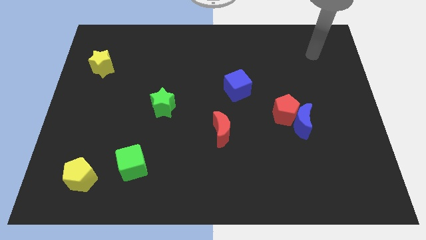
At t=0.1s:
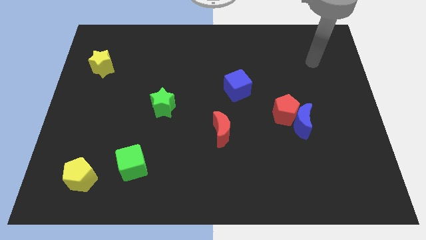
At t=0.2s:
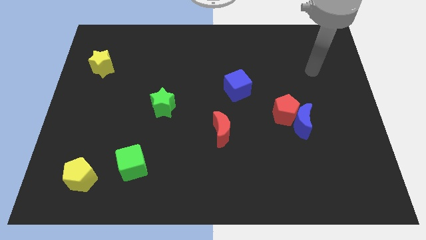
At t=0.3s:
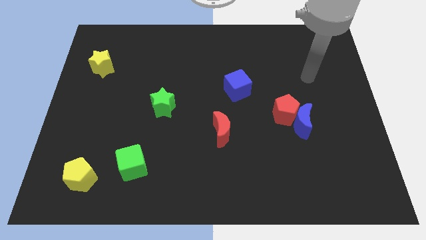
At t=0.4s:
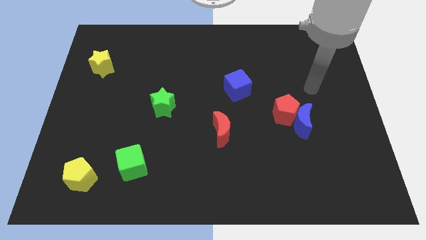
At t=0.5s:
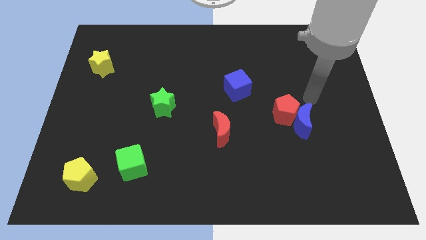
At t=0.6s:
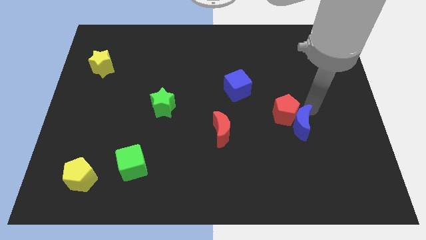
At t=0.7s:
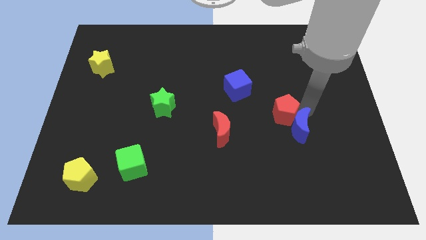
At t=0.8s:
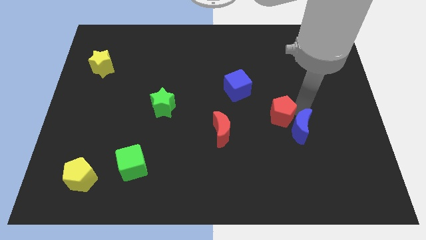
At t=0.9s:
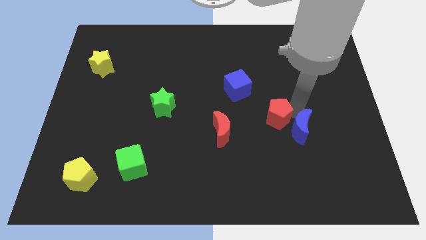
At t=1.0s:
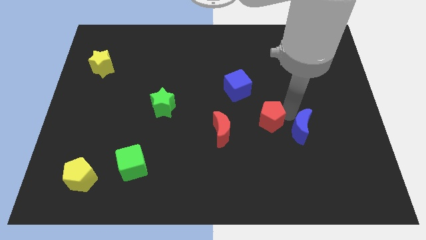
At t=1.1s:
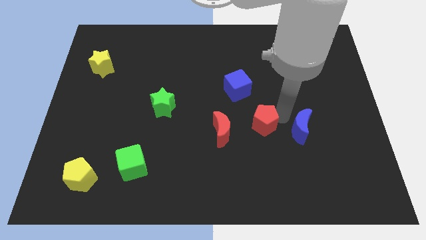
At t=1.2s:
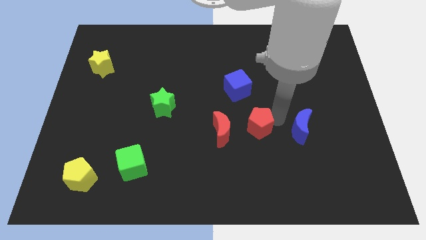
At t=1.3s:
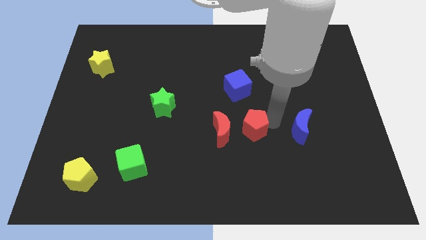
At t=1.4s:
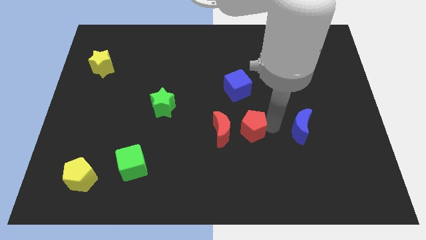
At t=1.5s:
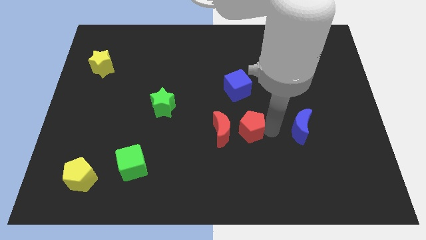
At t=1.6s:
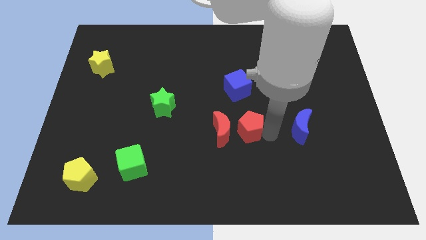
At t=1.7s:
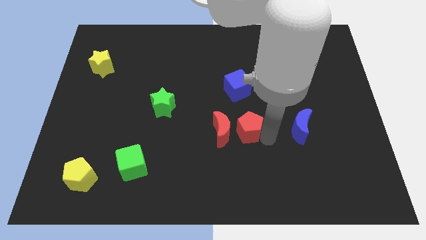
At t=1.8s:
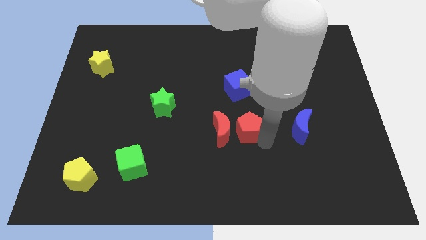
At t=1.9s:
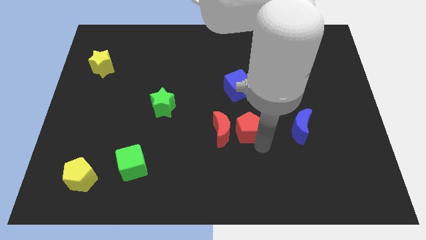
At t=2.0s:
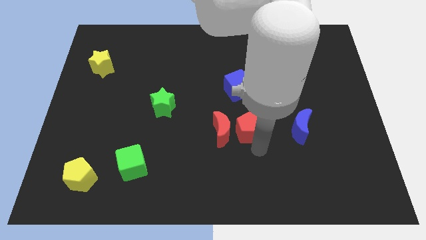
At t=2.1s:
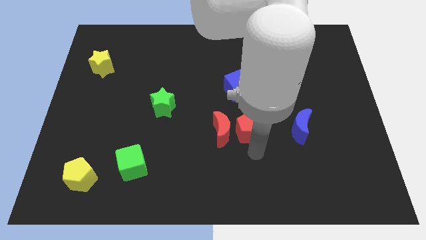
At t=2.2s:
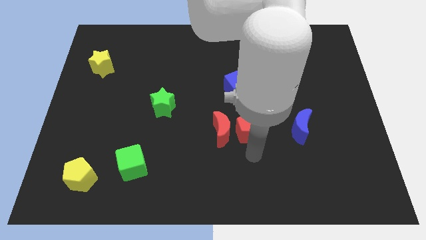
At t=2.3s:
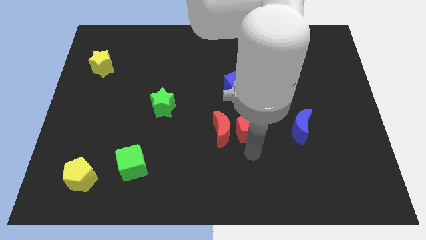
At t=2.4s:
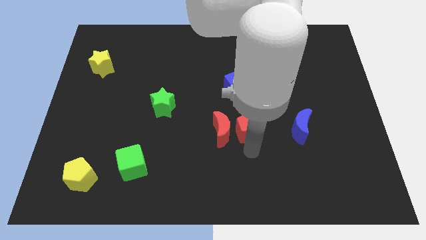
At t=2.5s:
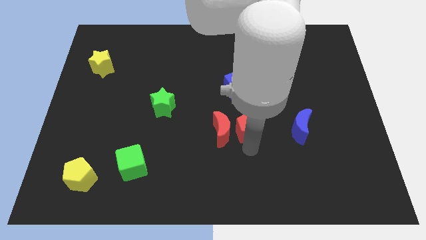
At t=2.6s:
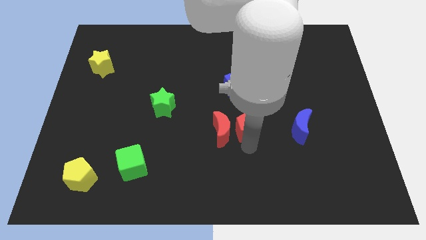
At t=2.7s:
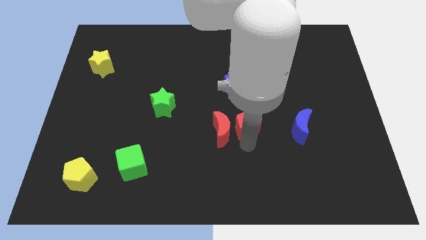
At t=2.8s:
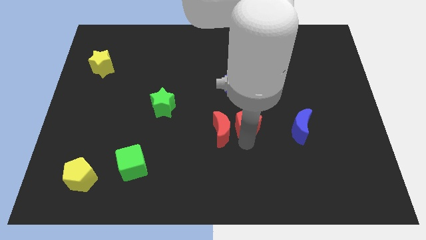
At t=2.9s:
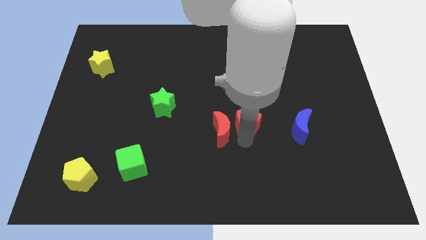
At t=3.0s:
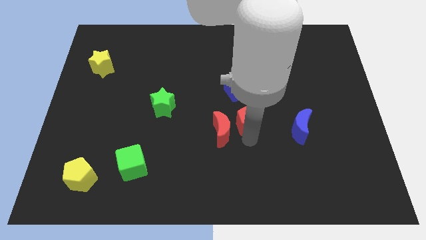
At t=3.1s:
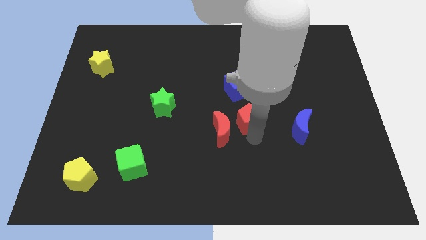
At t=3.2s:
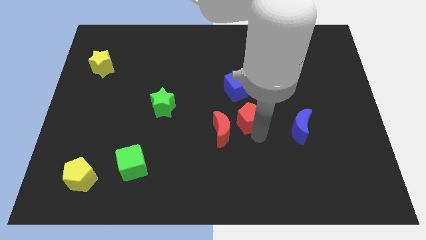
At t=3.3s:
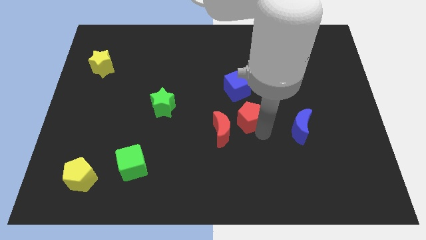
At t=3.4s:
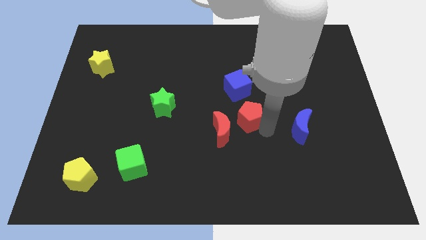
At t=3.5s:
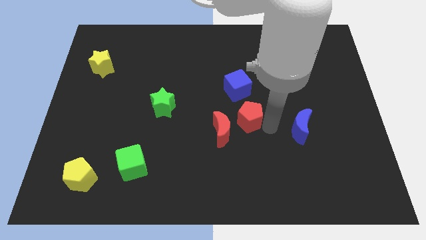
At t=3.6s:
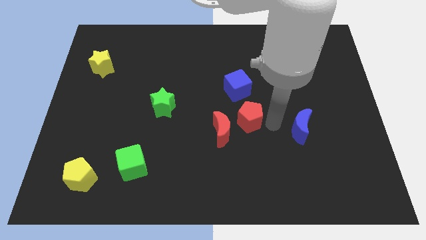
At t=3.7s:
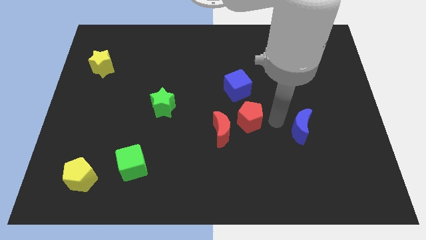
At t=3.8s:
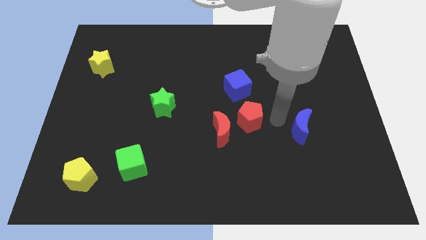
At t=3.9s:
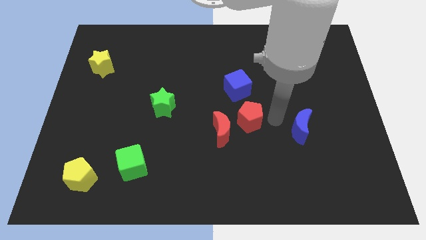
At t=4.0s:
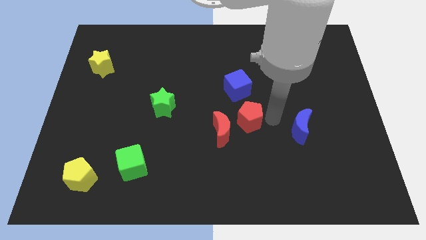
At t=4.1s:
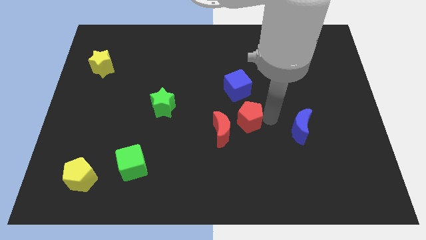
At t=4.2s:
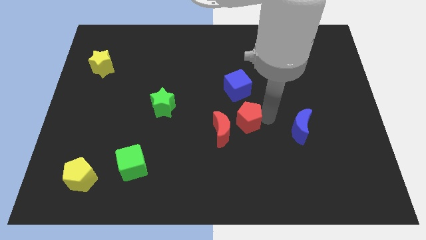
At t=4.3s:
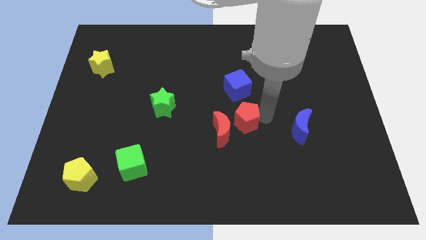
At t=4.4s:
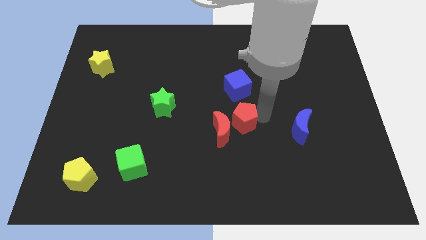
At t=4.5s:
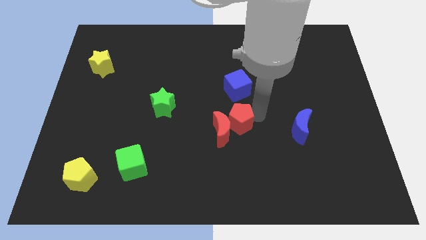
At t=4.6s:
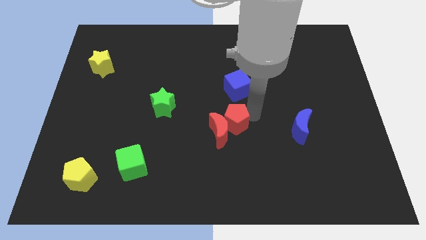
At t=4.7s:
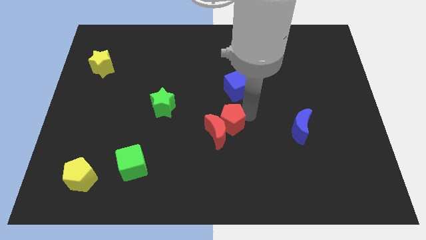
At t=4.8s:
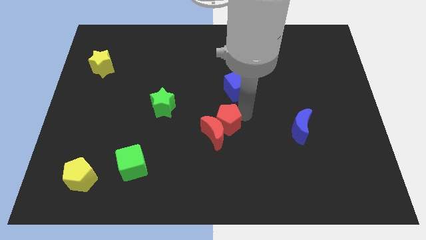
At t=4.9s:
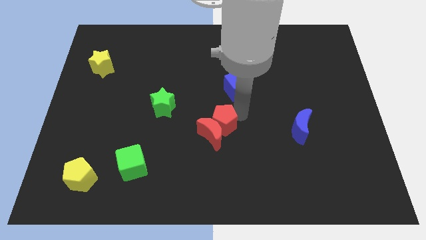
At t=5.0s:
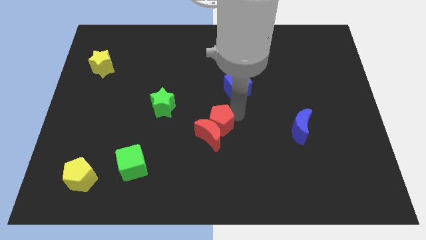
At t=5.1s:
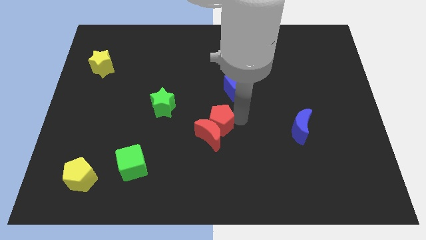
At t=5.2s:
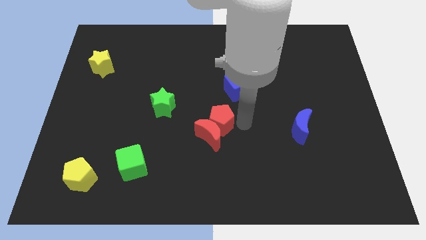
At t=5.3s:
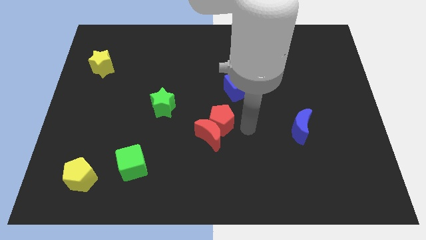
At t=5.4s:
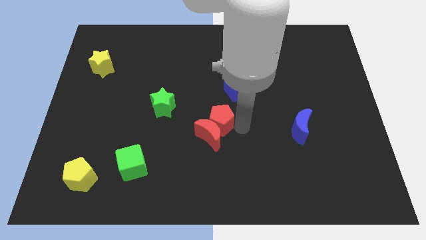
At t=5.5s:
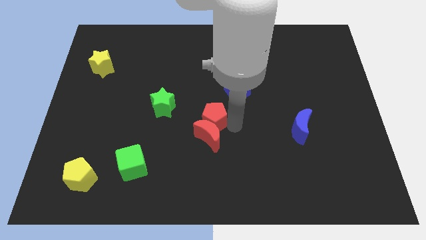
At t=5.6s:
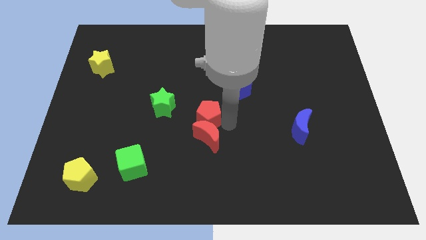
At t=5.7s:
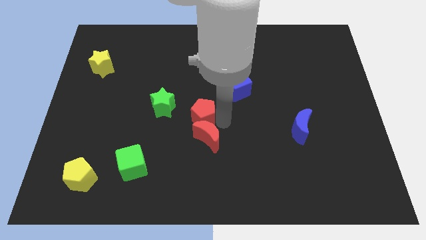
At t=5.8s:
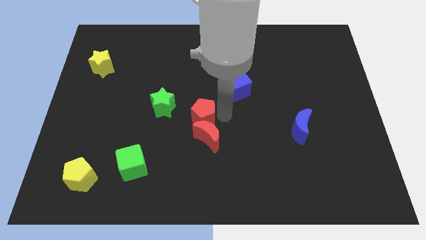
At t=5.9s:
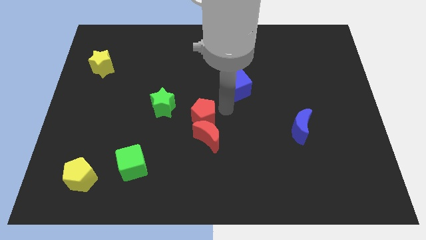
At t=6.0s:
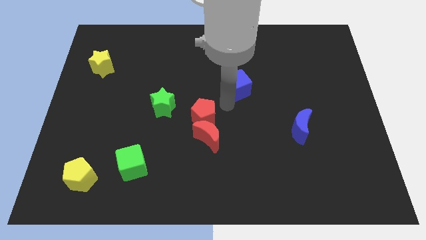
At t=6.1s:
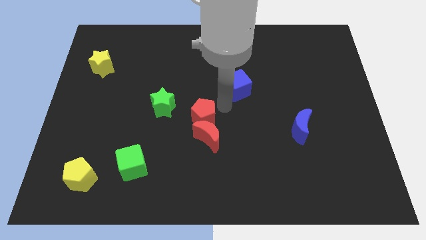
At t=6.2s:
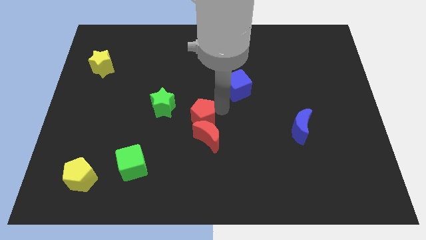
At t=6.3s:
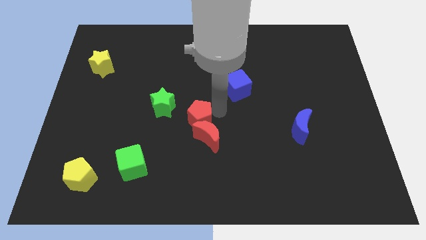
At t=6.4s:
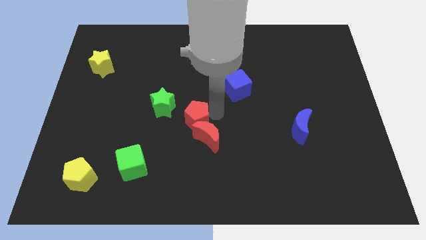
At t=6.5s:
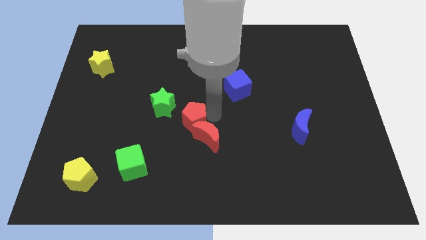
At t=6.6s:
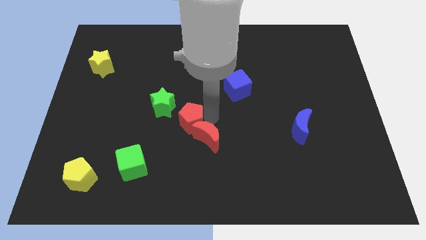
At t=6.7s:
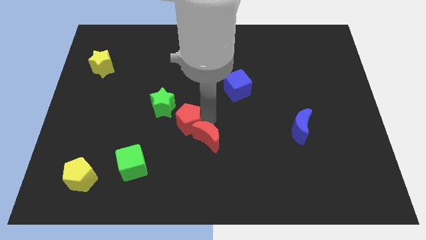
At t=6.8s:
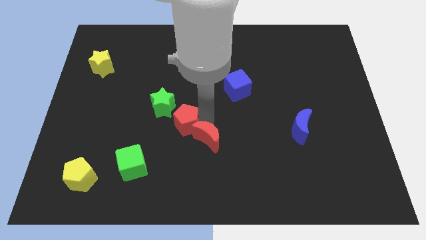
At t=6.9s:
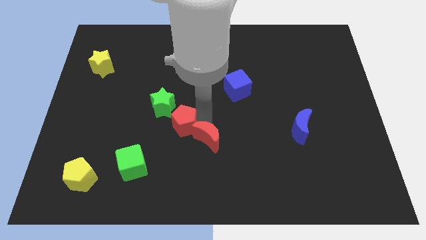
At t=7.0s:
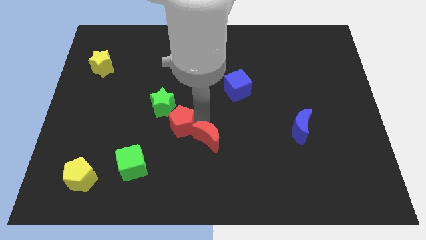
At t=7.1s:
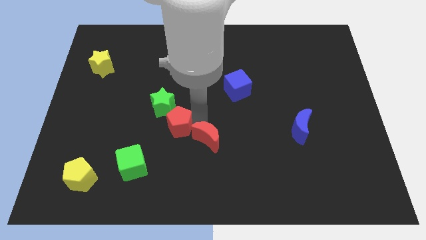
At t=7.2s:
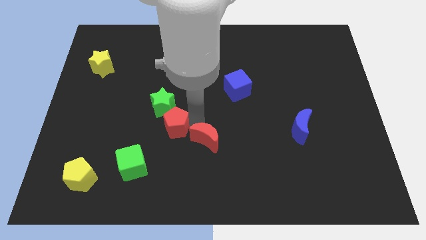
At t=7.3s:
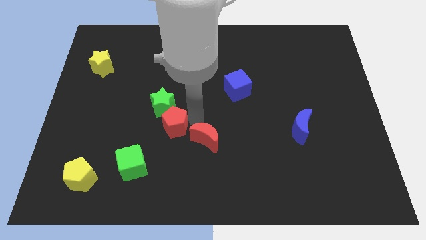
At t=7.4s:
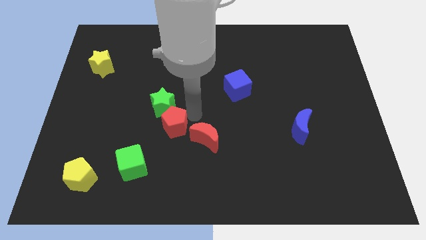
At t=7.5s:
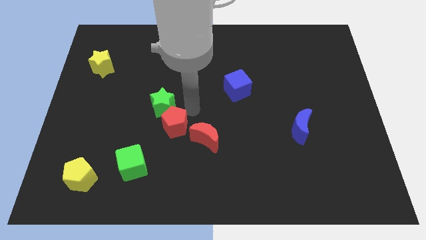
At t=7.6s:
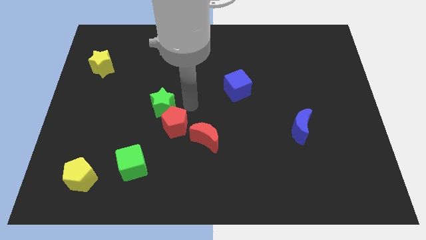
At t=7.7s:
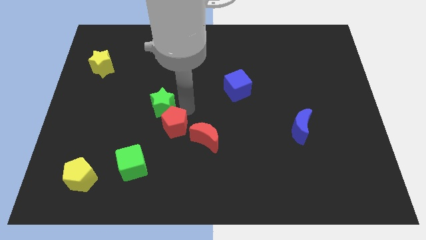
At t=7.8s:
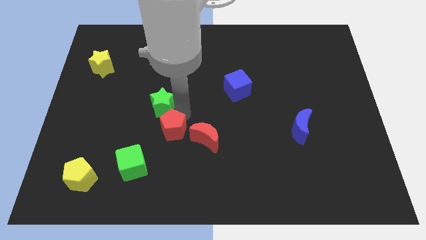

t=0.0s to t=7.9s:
push the red pentagon to the top right side of the green cube
